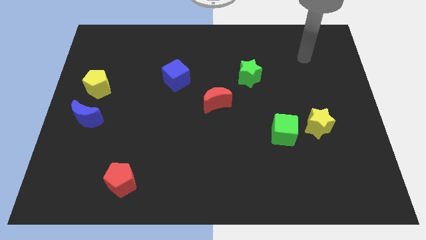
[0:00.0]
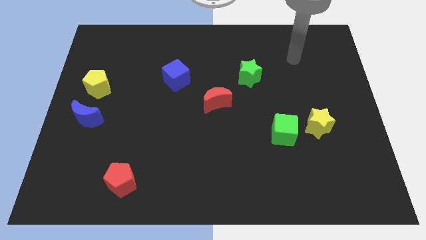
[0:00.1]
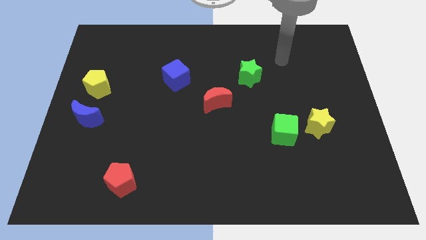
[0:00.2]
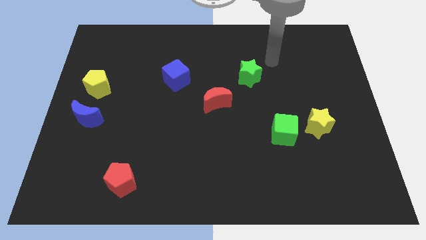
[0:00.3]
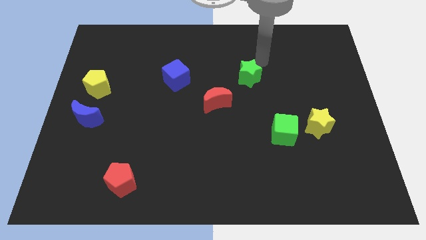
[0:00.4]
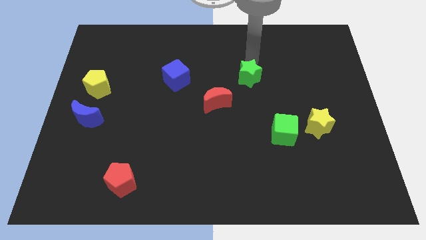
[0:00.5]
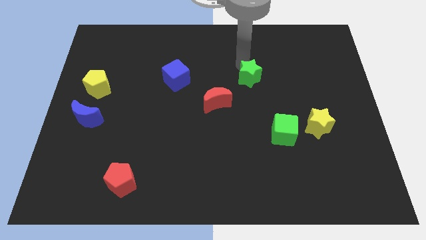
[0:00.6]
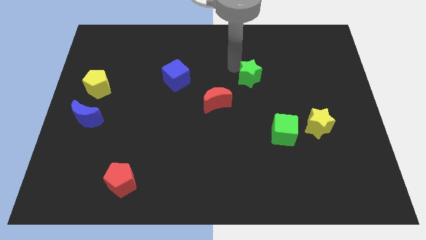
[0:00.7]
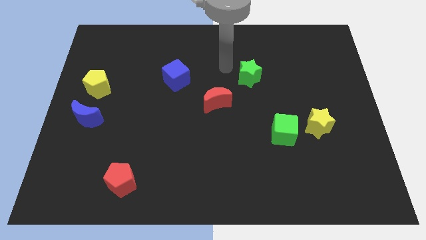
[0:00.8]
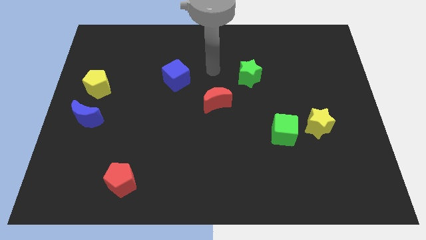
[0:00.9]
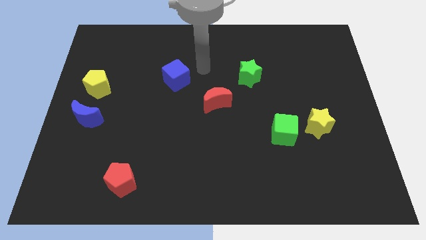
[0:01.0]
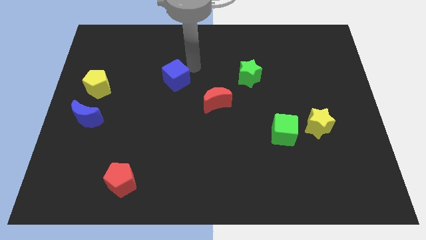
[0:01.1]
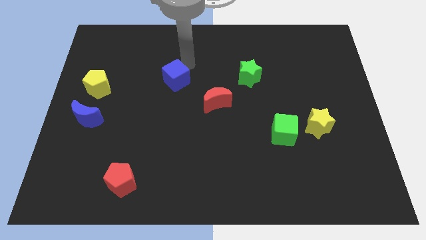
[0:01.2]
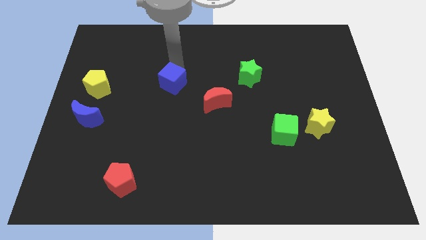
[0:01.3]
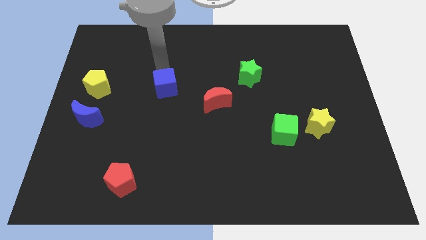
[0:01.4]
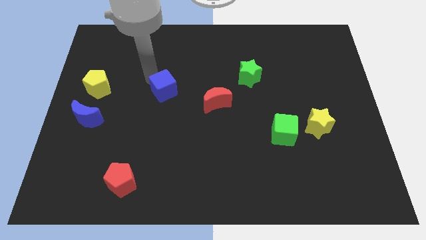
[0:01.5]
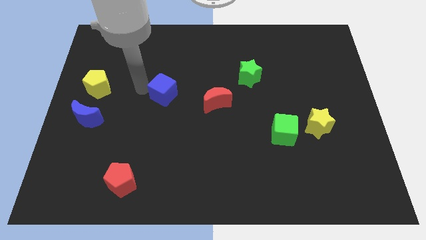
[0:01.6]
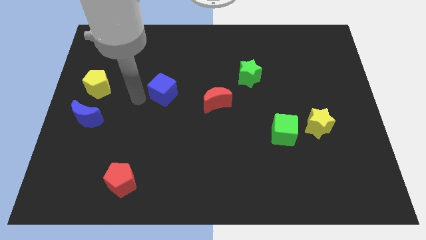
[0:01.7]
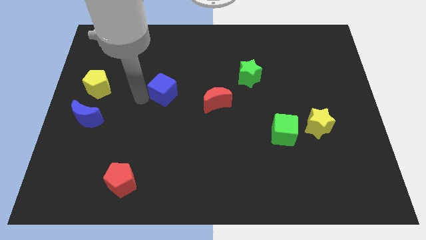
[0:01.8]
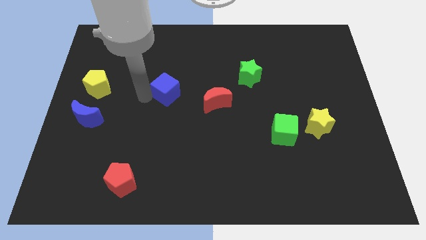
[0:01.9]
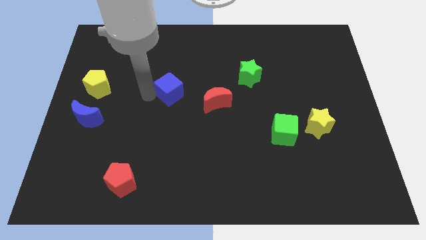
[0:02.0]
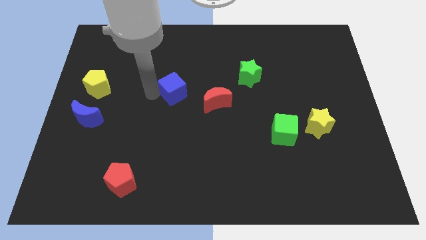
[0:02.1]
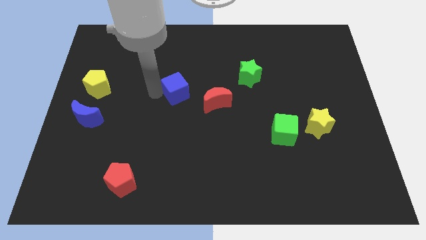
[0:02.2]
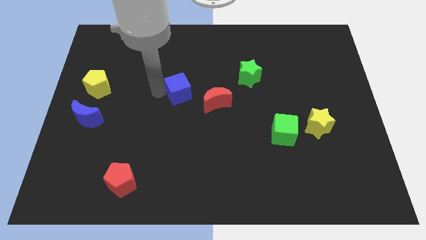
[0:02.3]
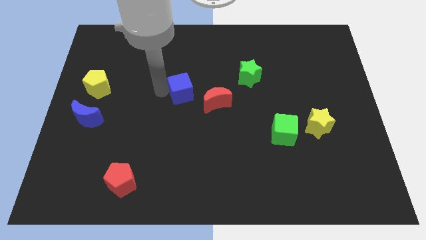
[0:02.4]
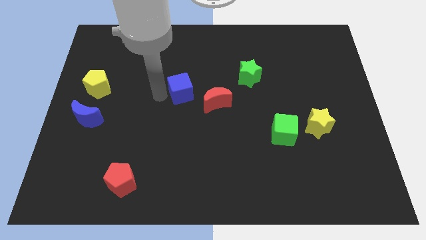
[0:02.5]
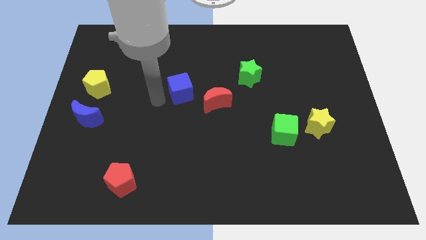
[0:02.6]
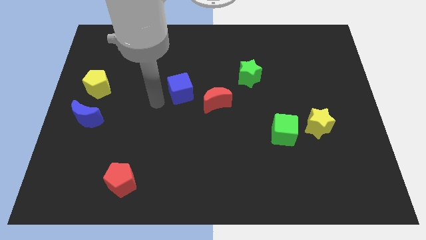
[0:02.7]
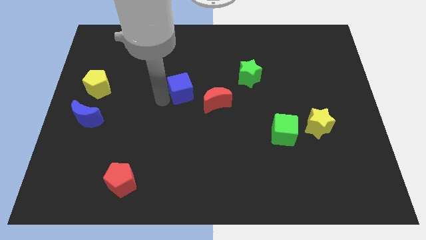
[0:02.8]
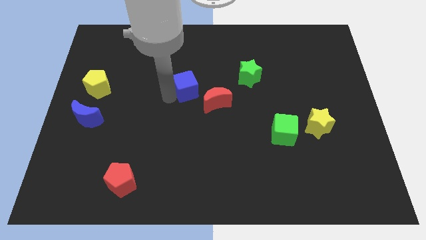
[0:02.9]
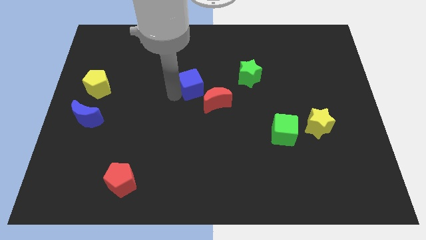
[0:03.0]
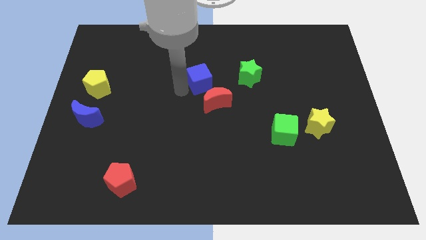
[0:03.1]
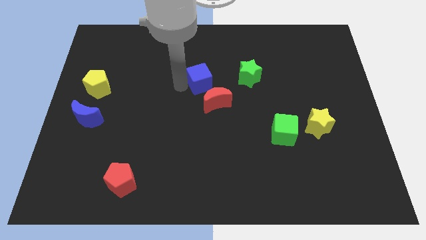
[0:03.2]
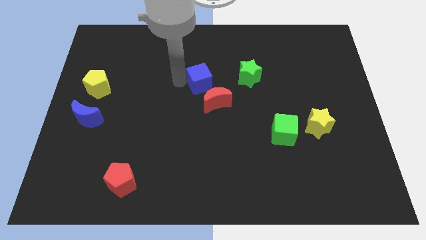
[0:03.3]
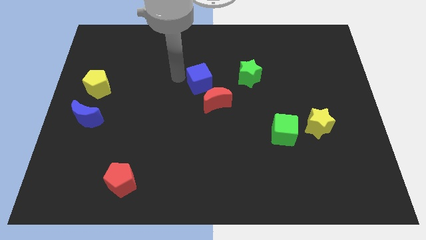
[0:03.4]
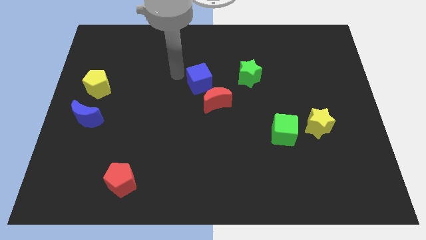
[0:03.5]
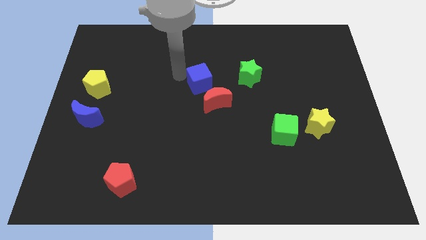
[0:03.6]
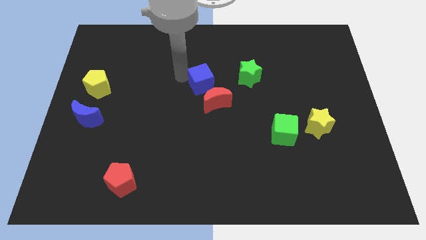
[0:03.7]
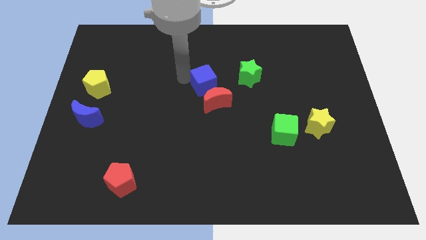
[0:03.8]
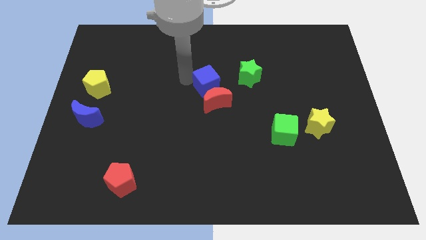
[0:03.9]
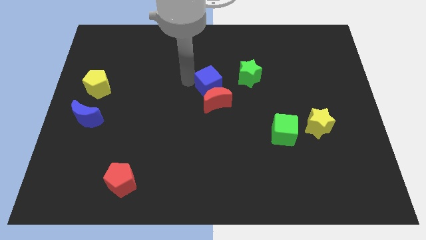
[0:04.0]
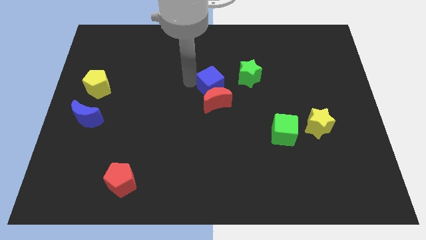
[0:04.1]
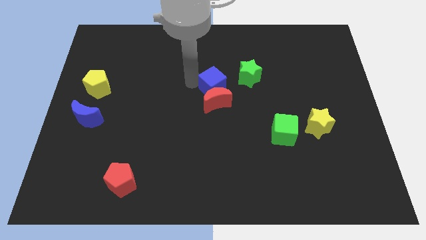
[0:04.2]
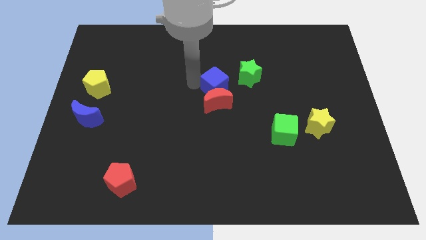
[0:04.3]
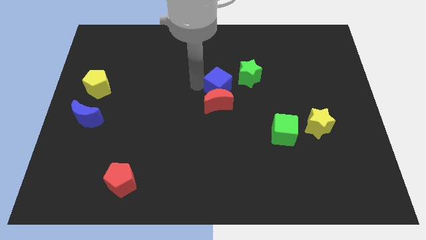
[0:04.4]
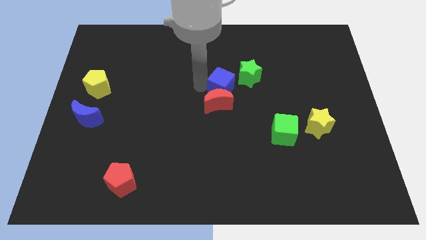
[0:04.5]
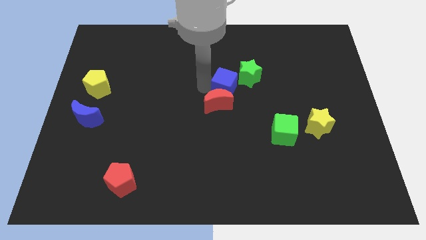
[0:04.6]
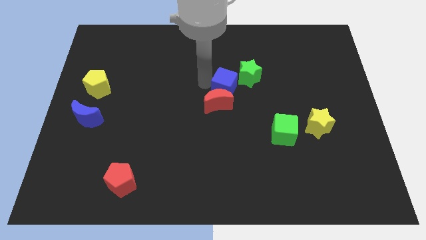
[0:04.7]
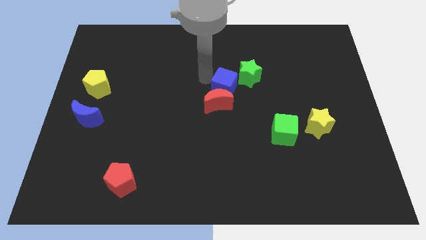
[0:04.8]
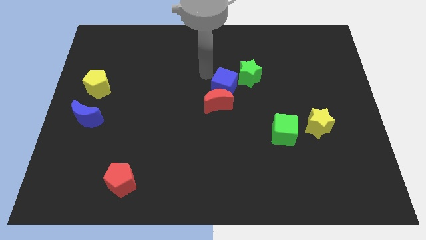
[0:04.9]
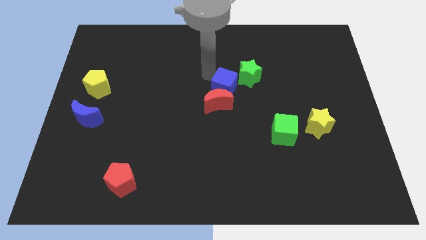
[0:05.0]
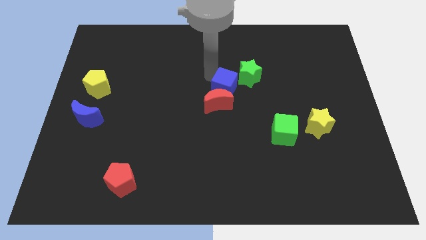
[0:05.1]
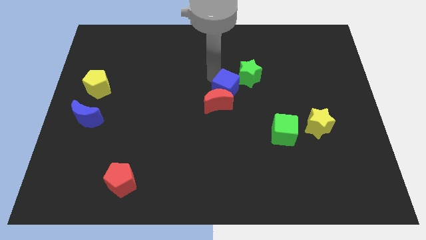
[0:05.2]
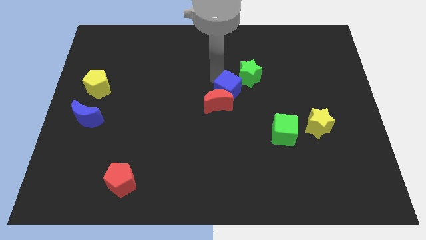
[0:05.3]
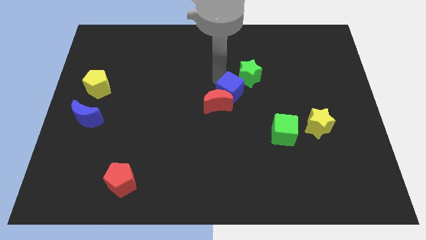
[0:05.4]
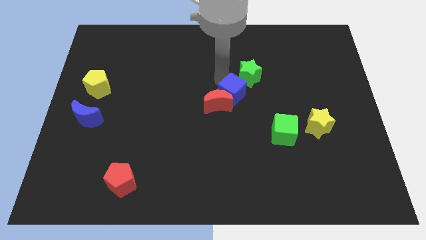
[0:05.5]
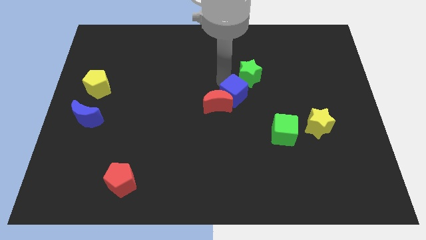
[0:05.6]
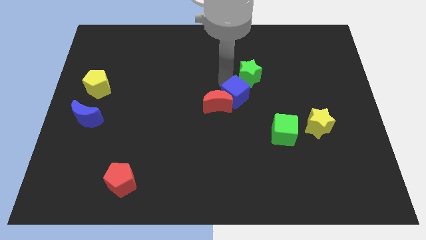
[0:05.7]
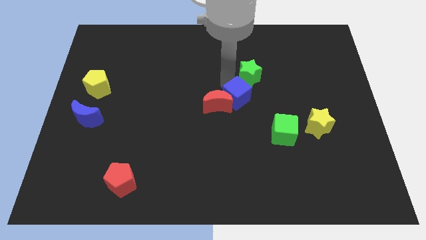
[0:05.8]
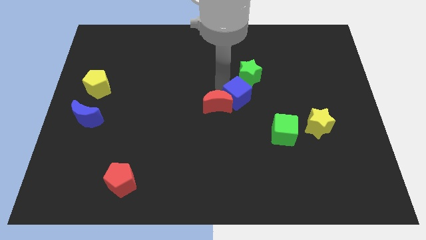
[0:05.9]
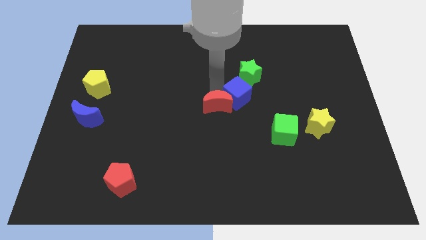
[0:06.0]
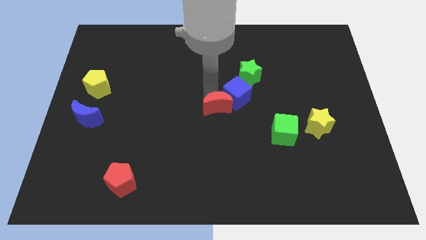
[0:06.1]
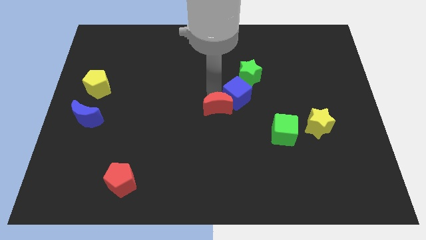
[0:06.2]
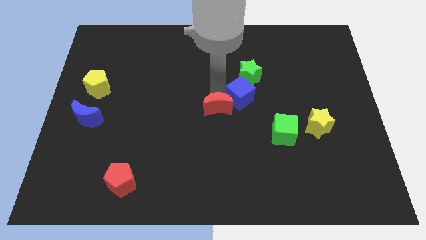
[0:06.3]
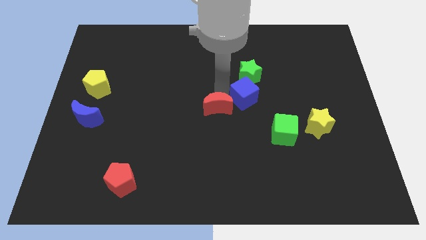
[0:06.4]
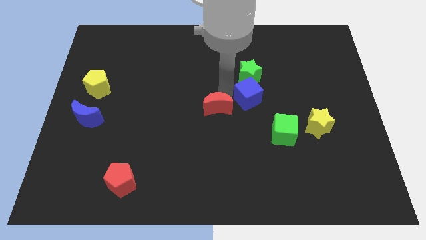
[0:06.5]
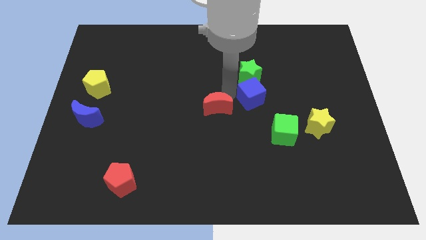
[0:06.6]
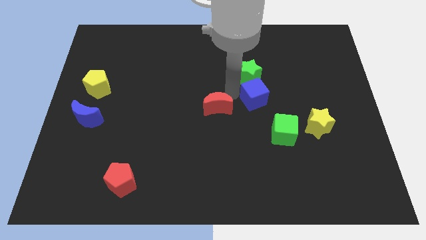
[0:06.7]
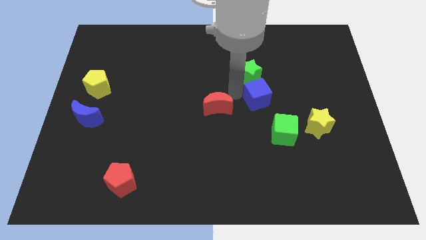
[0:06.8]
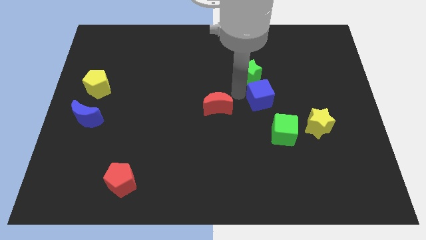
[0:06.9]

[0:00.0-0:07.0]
move the blue cube to the top side of the green cube
